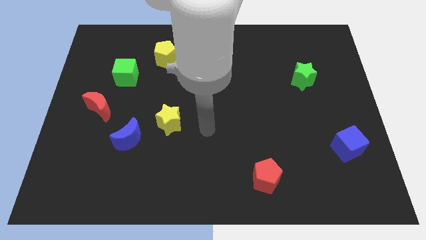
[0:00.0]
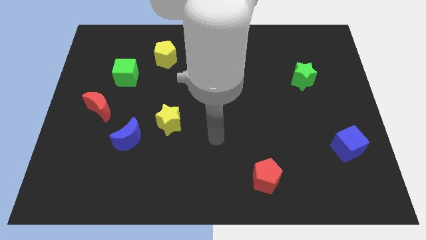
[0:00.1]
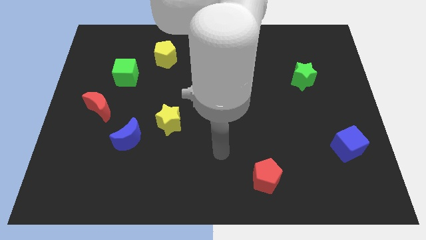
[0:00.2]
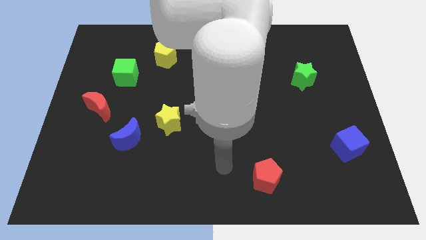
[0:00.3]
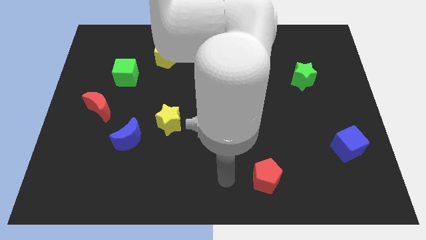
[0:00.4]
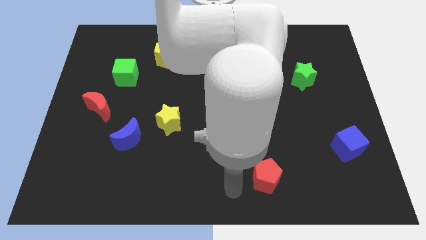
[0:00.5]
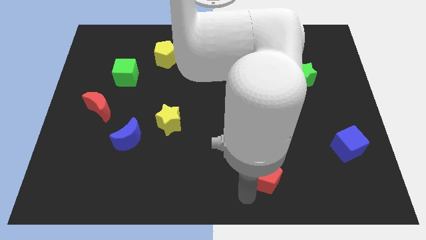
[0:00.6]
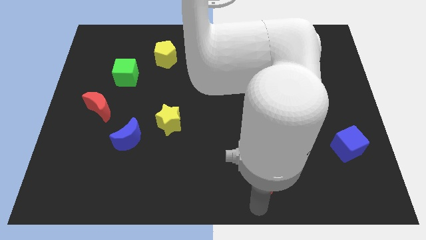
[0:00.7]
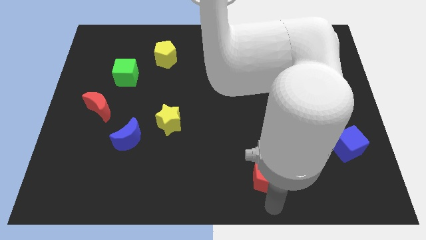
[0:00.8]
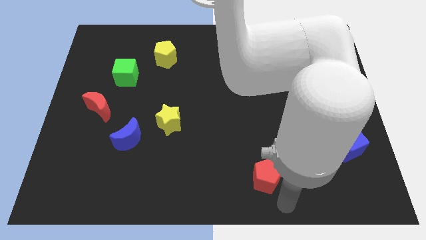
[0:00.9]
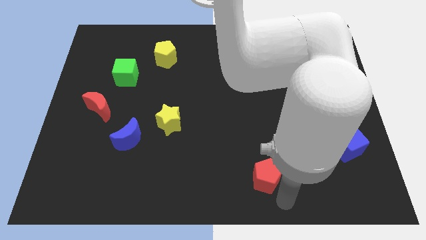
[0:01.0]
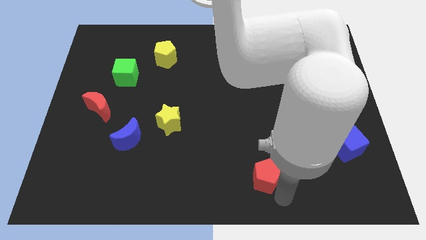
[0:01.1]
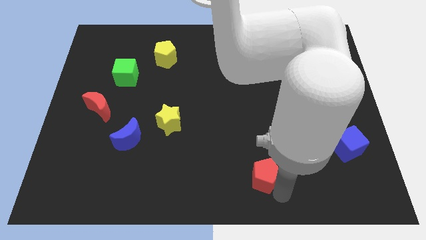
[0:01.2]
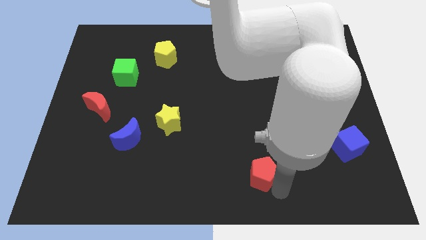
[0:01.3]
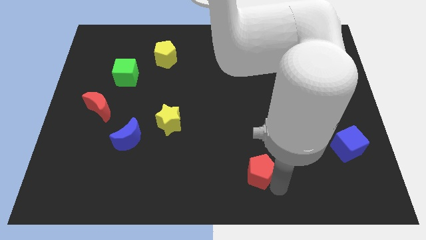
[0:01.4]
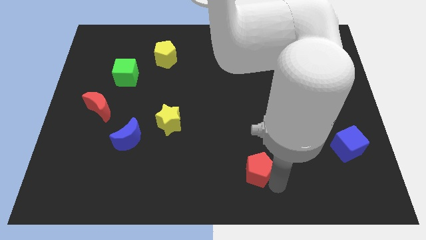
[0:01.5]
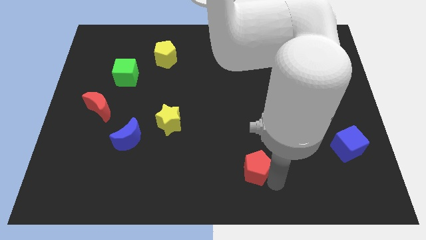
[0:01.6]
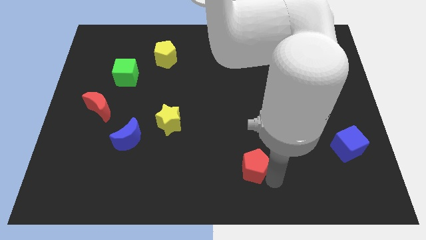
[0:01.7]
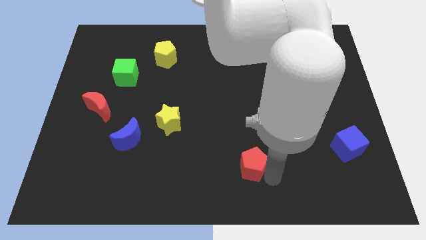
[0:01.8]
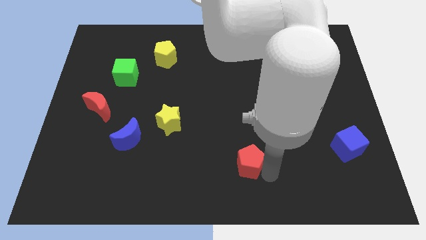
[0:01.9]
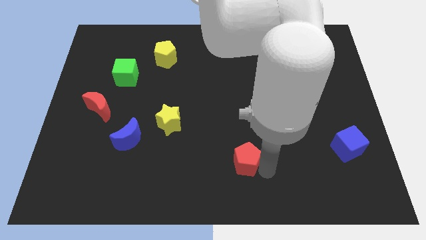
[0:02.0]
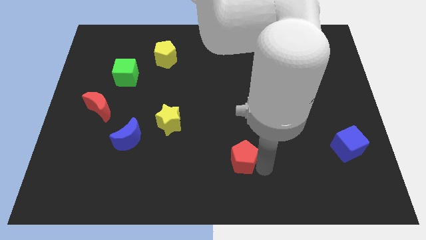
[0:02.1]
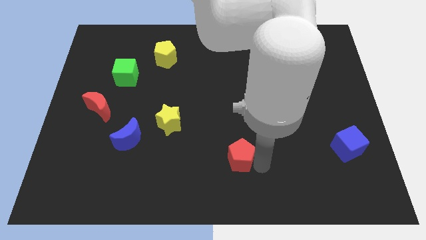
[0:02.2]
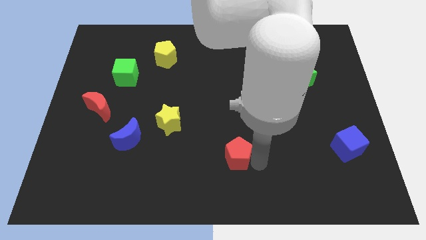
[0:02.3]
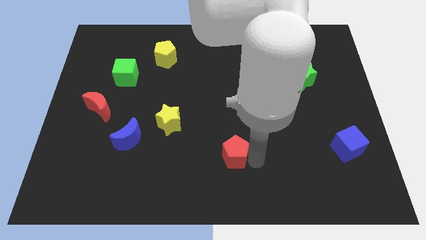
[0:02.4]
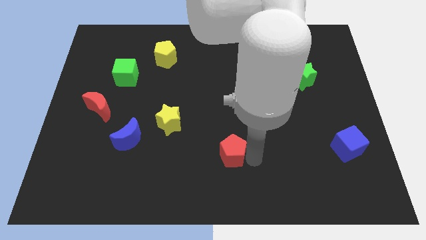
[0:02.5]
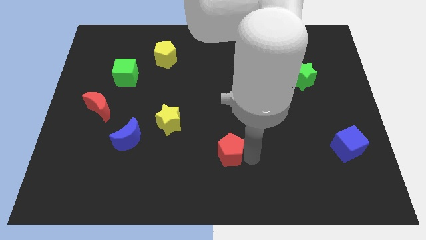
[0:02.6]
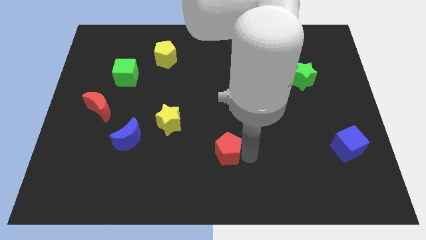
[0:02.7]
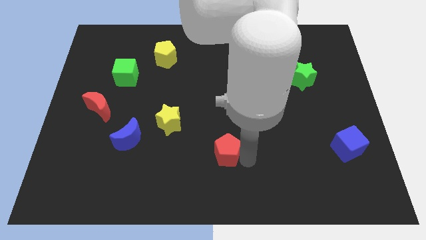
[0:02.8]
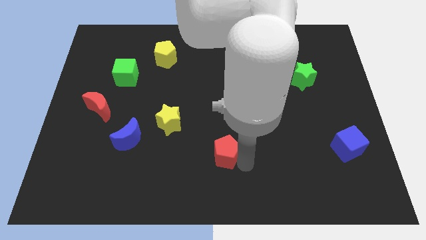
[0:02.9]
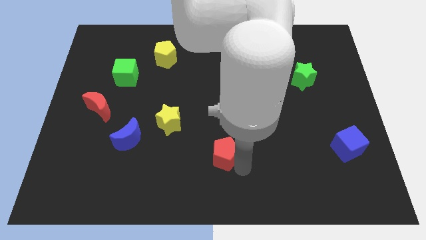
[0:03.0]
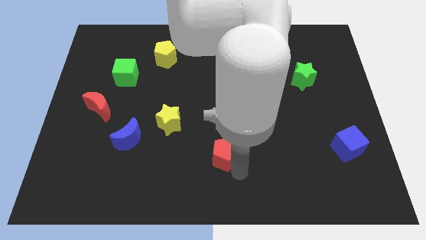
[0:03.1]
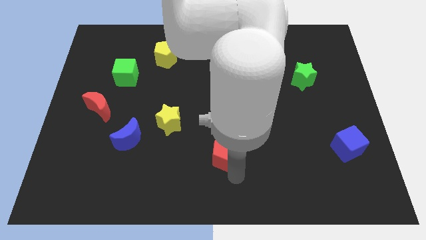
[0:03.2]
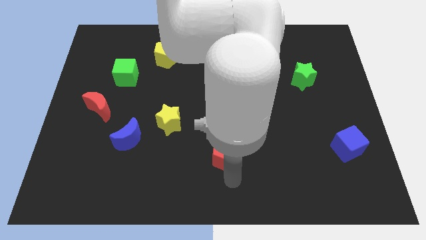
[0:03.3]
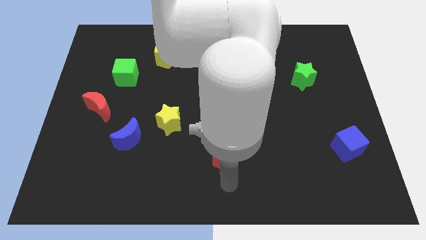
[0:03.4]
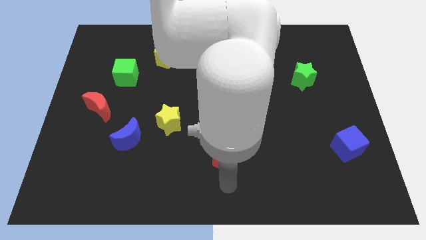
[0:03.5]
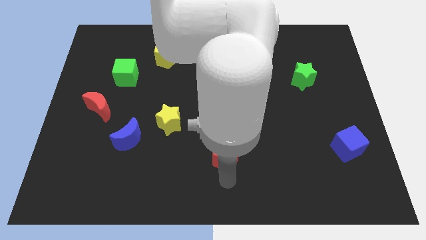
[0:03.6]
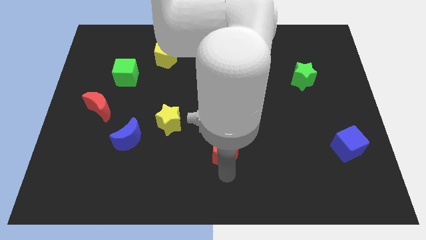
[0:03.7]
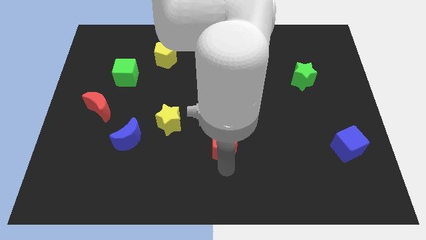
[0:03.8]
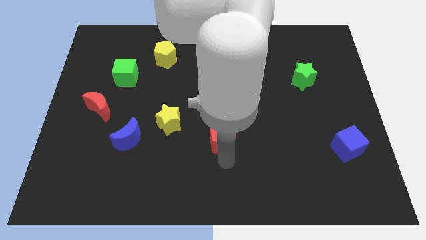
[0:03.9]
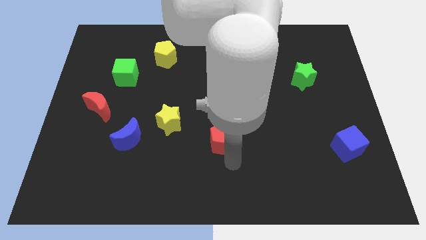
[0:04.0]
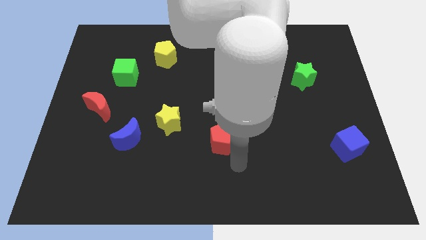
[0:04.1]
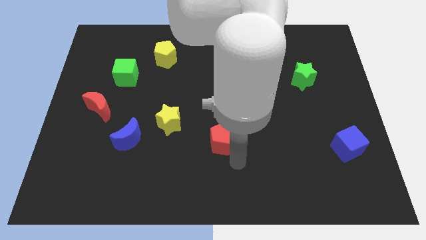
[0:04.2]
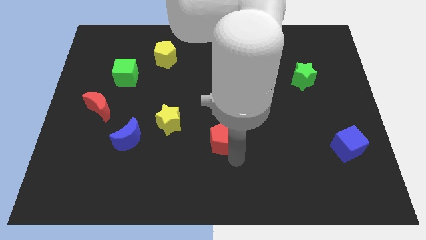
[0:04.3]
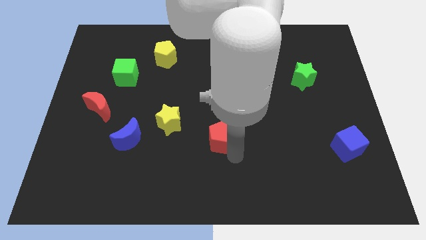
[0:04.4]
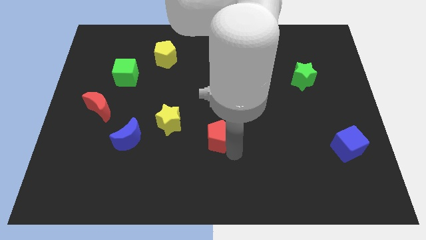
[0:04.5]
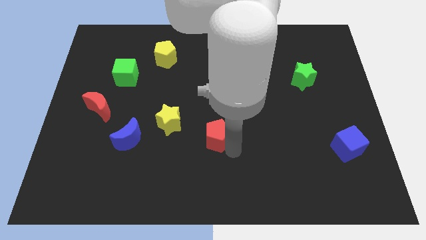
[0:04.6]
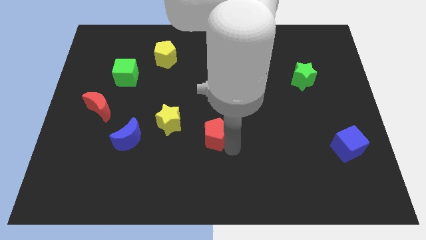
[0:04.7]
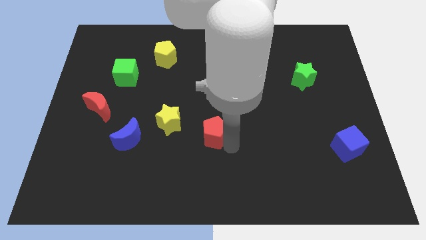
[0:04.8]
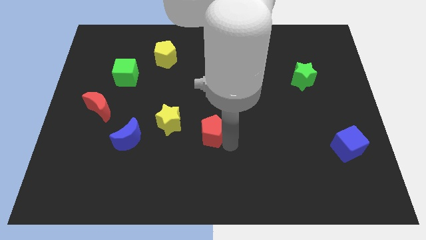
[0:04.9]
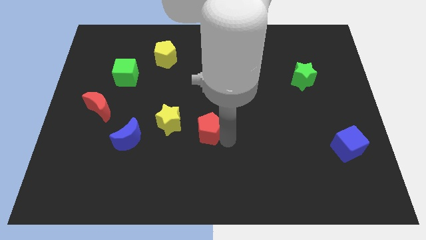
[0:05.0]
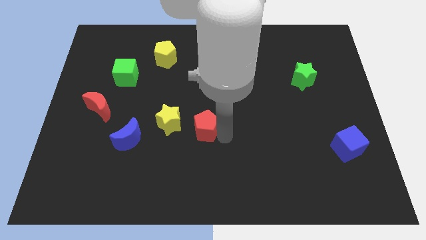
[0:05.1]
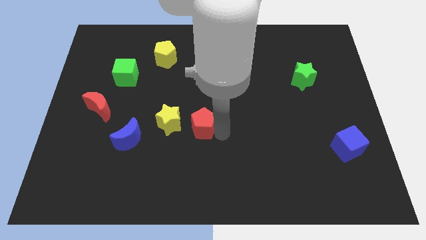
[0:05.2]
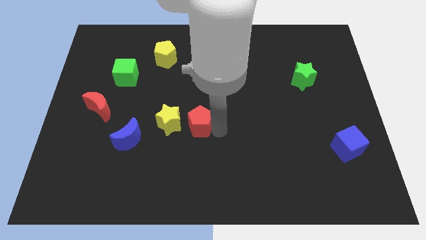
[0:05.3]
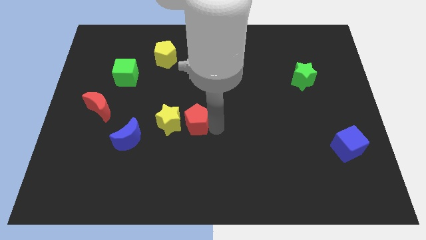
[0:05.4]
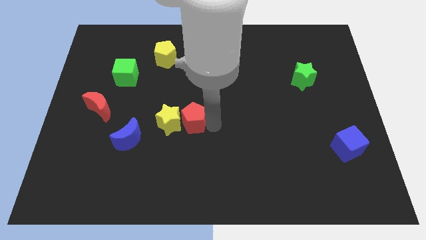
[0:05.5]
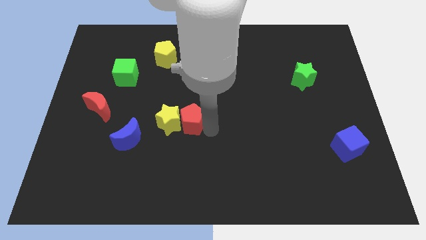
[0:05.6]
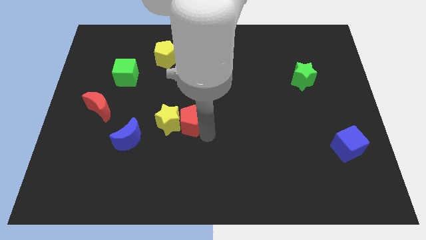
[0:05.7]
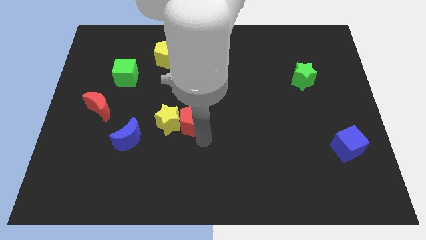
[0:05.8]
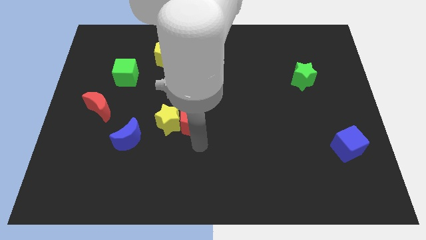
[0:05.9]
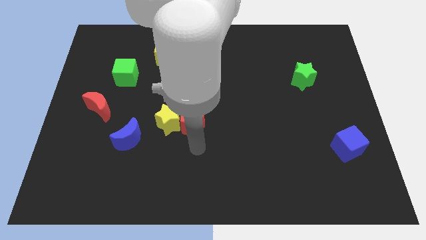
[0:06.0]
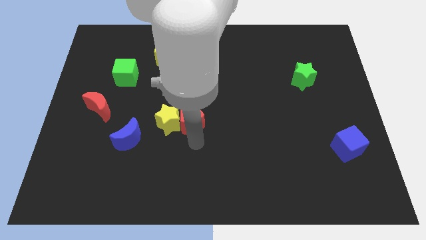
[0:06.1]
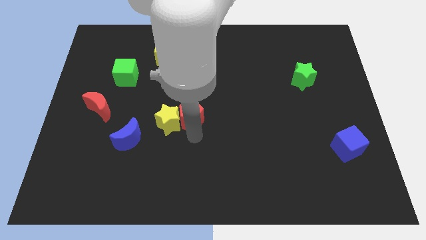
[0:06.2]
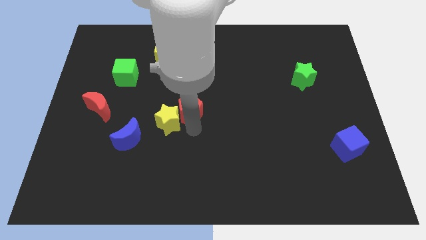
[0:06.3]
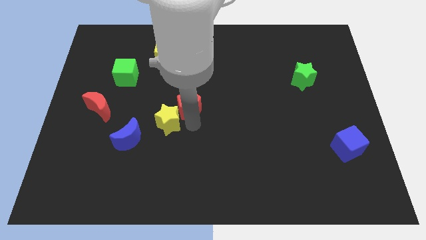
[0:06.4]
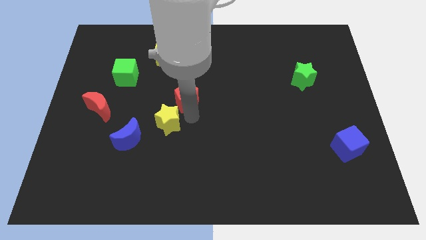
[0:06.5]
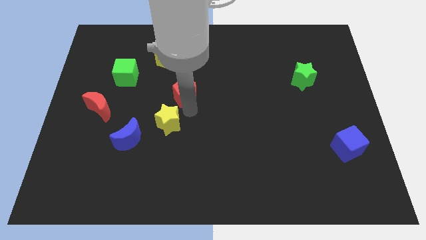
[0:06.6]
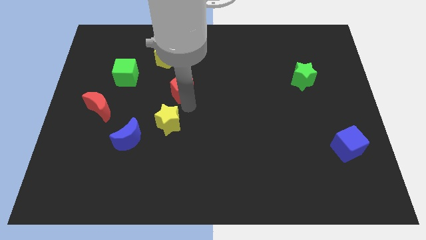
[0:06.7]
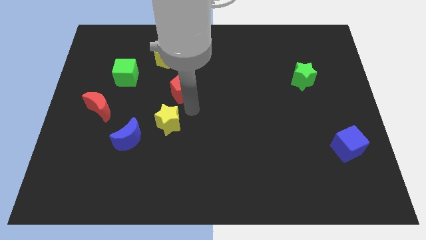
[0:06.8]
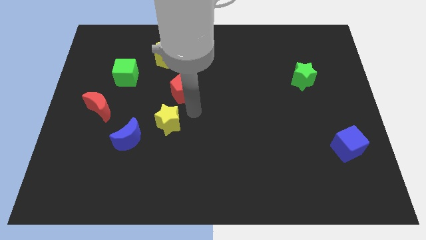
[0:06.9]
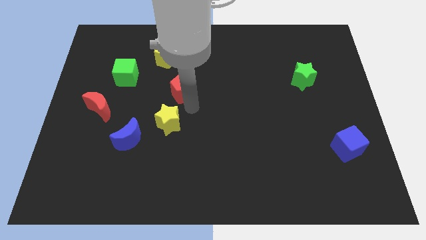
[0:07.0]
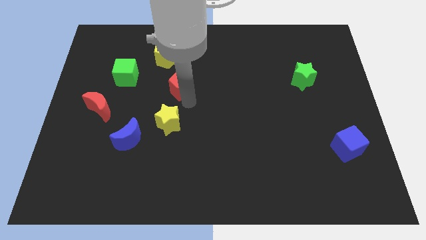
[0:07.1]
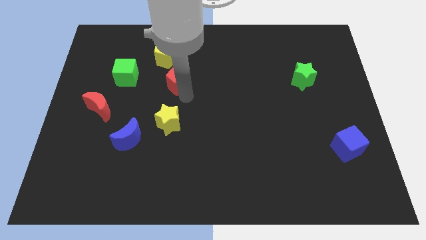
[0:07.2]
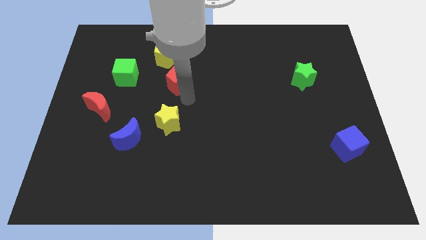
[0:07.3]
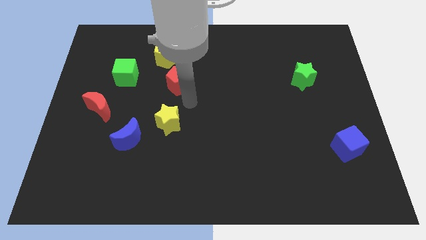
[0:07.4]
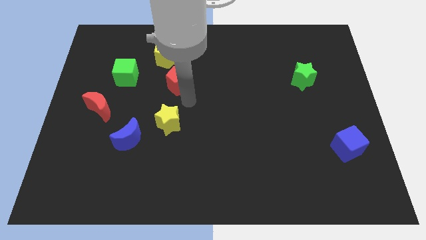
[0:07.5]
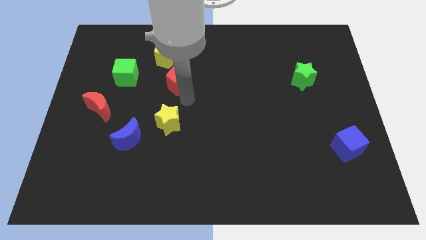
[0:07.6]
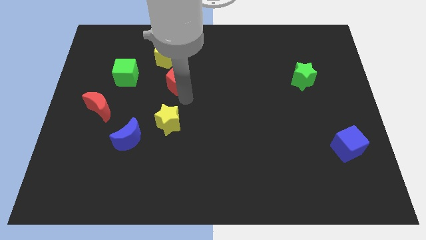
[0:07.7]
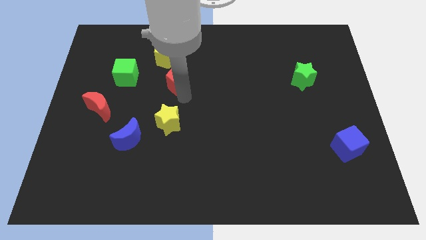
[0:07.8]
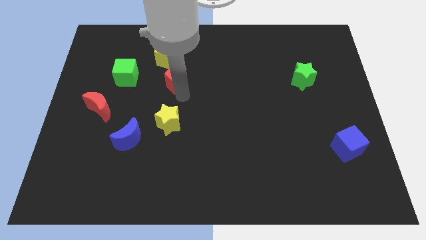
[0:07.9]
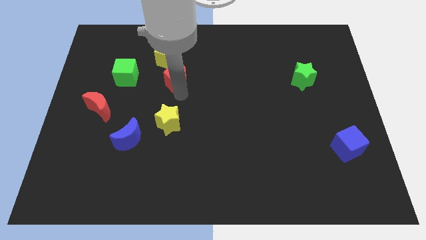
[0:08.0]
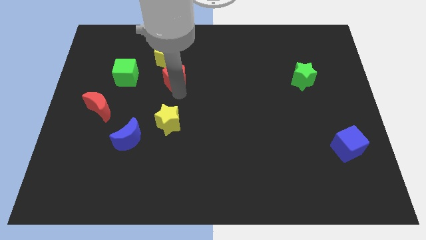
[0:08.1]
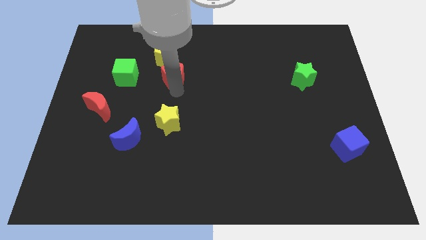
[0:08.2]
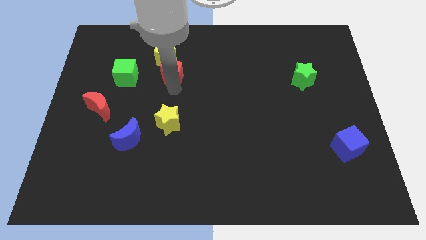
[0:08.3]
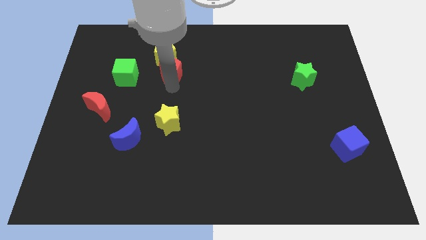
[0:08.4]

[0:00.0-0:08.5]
push the red pentagon close to the yellow pentagon
